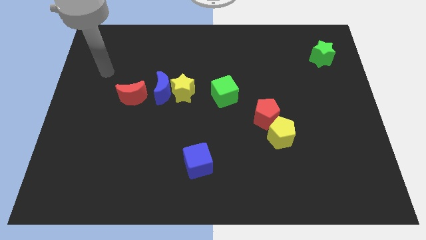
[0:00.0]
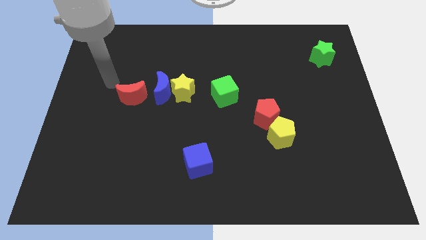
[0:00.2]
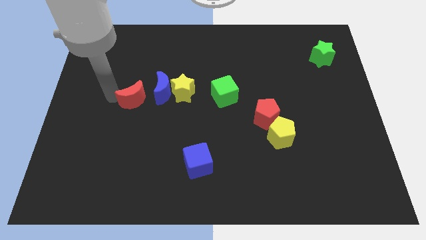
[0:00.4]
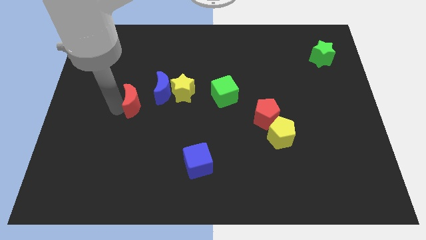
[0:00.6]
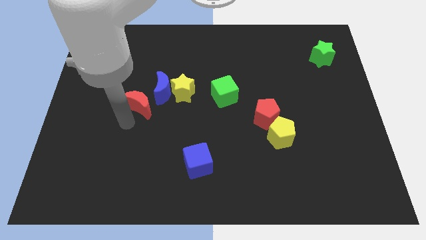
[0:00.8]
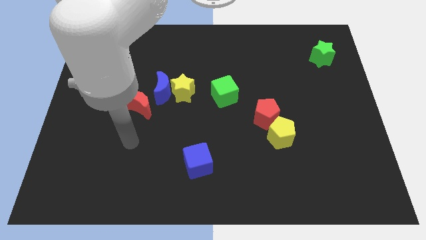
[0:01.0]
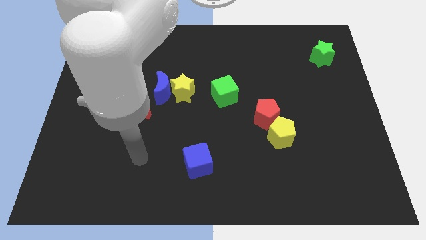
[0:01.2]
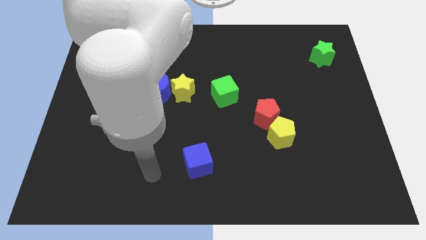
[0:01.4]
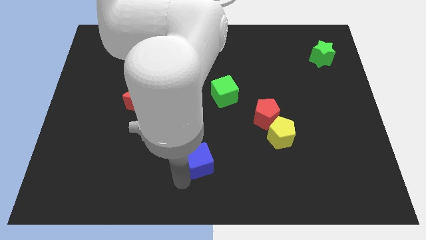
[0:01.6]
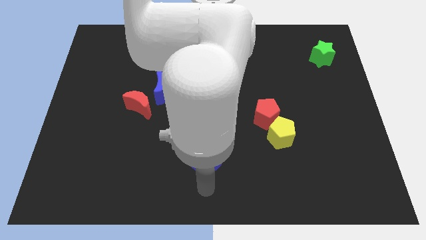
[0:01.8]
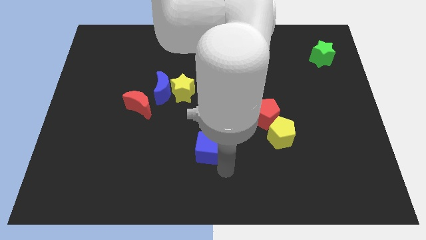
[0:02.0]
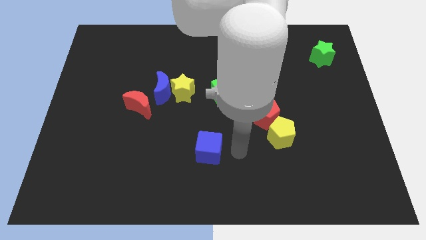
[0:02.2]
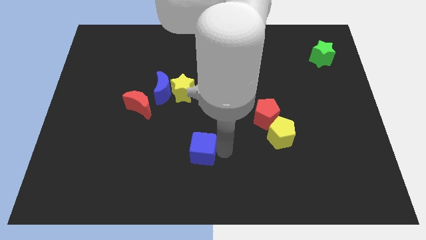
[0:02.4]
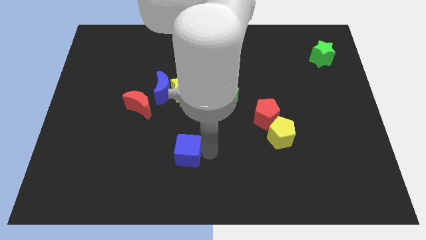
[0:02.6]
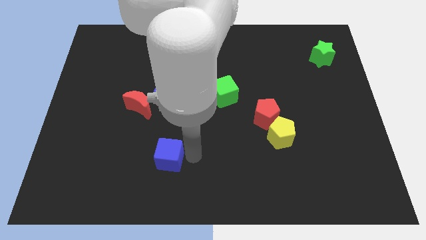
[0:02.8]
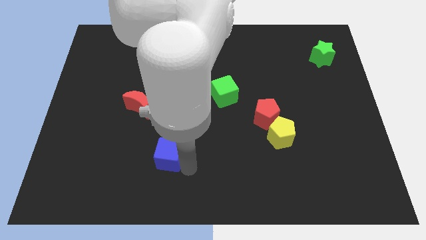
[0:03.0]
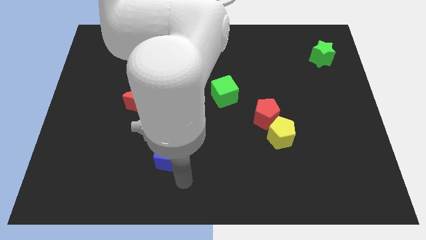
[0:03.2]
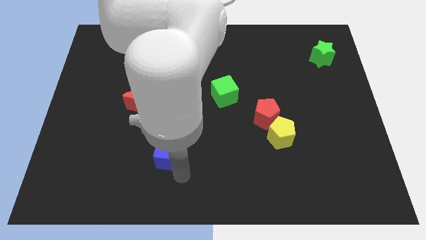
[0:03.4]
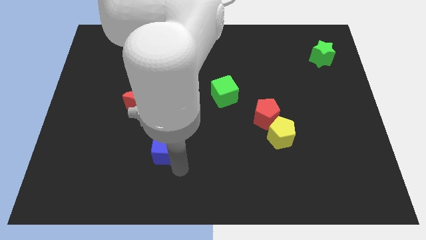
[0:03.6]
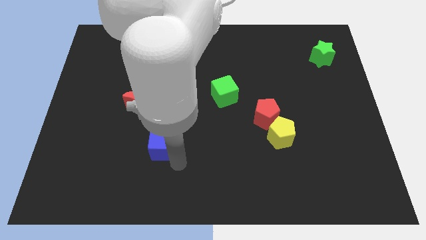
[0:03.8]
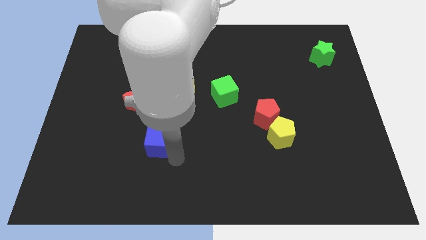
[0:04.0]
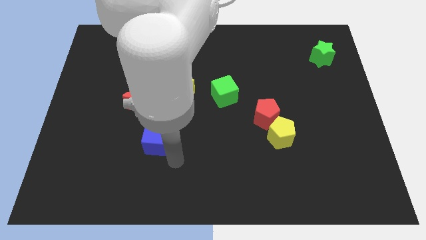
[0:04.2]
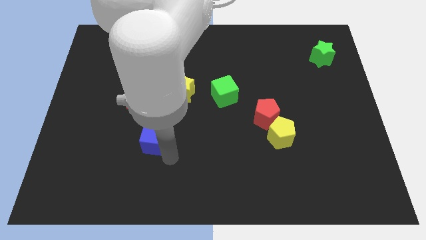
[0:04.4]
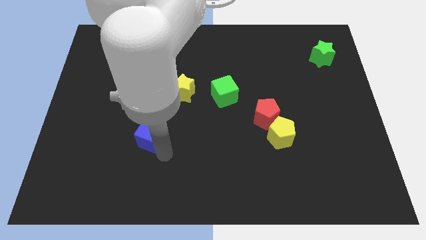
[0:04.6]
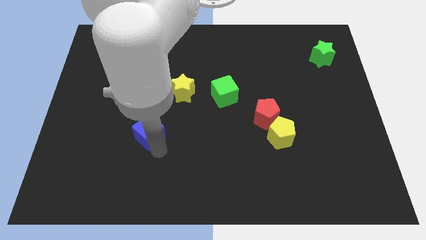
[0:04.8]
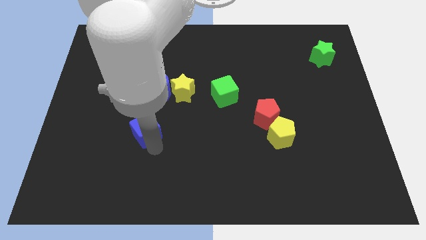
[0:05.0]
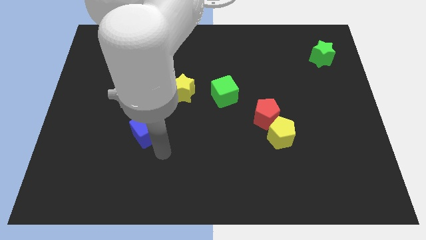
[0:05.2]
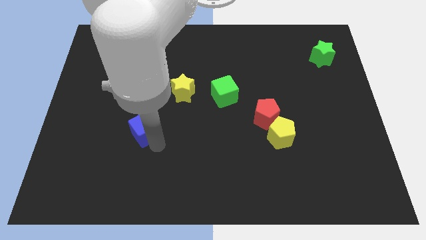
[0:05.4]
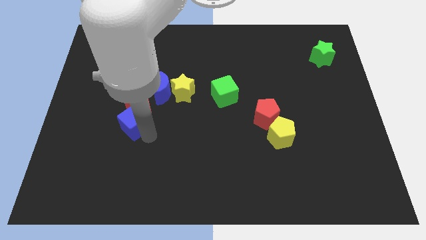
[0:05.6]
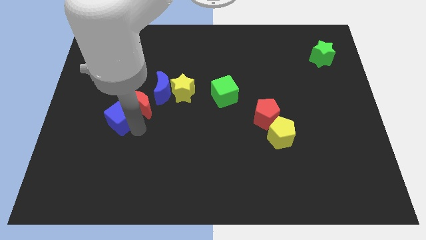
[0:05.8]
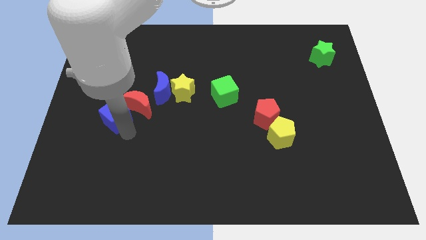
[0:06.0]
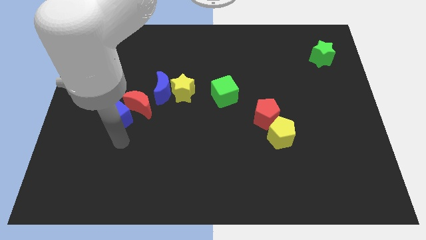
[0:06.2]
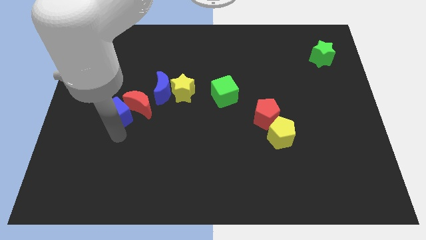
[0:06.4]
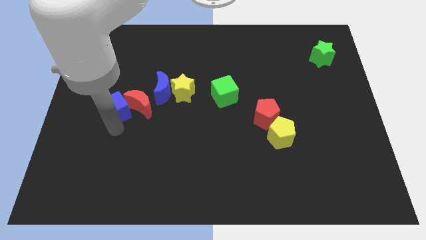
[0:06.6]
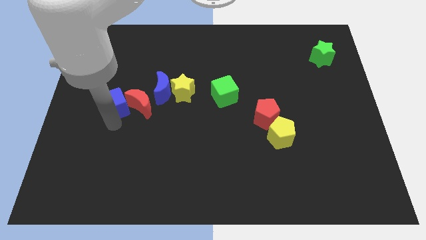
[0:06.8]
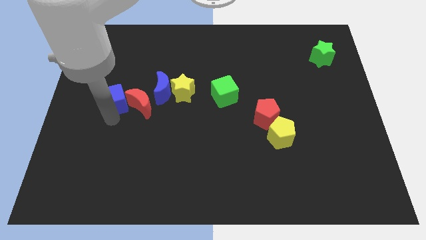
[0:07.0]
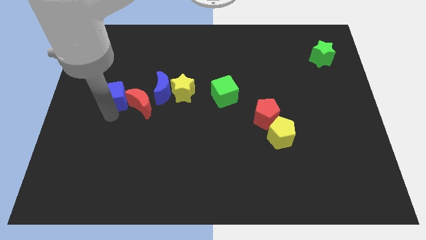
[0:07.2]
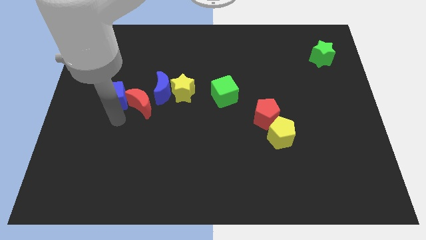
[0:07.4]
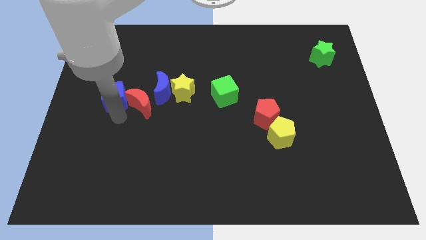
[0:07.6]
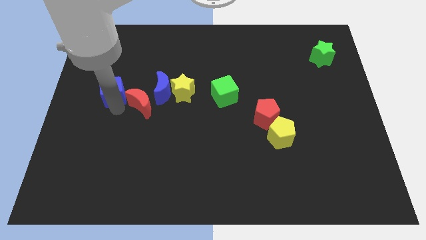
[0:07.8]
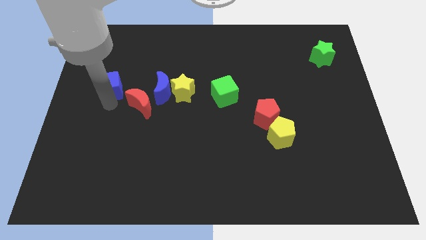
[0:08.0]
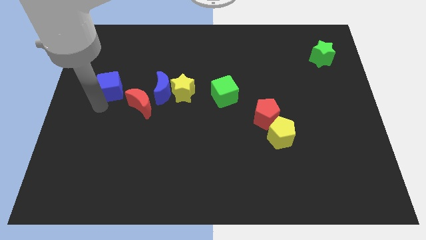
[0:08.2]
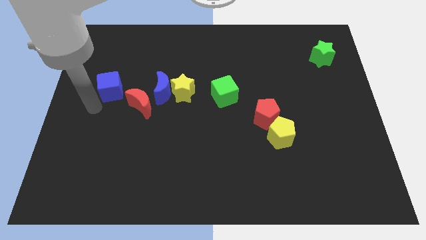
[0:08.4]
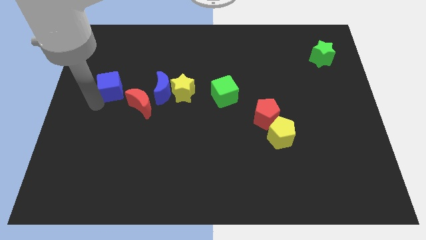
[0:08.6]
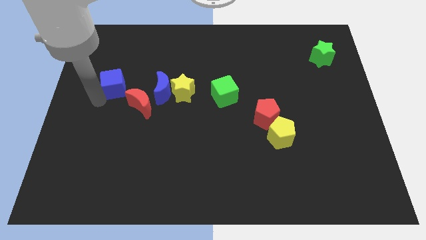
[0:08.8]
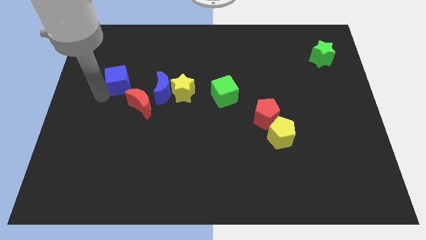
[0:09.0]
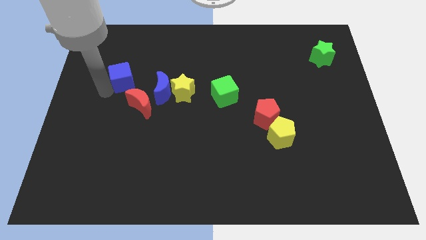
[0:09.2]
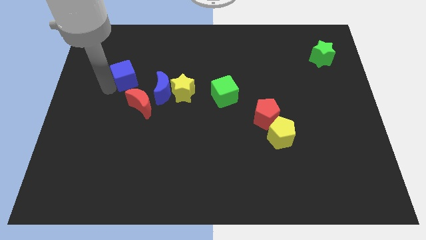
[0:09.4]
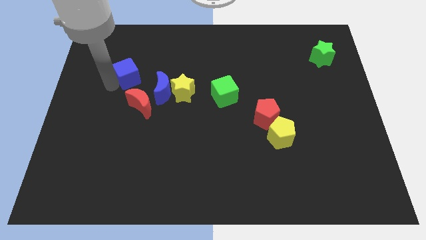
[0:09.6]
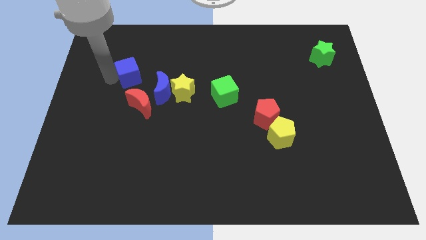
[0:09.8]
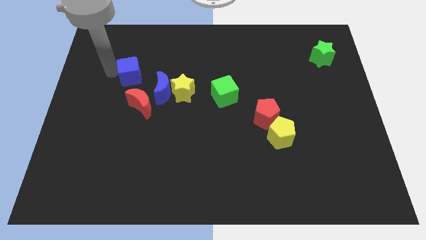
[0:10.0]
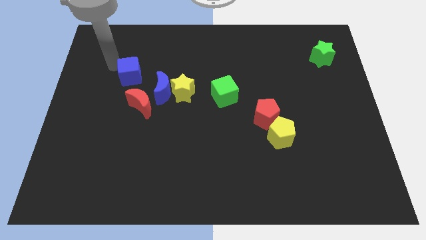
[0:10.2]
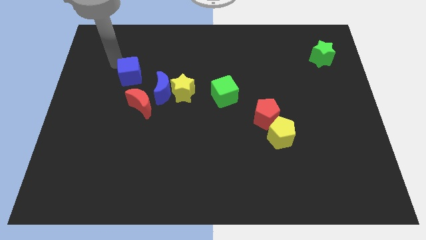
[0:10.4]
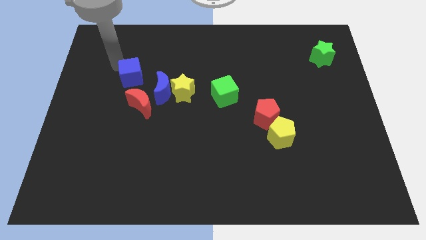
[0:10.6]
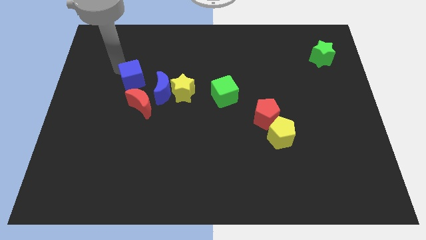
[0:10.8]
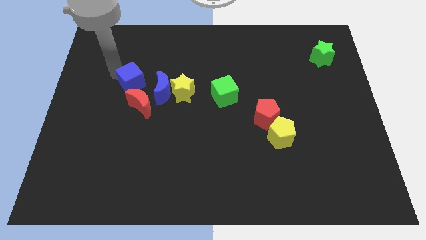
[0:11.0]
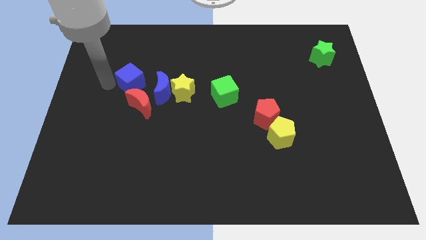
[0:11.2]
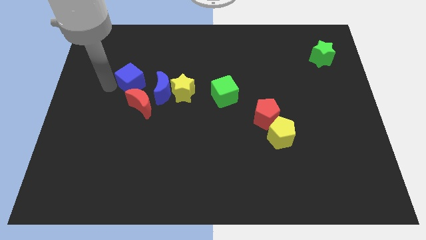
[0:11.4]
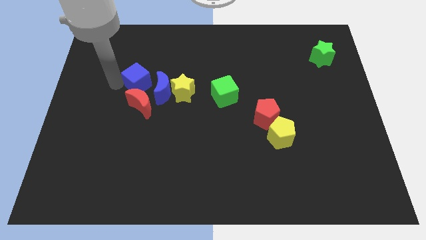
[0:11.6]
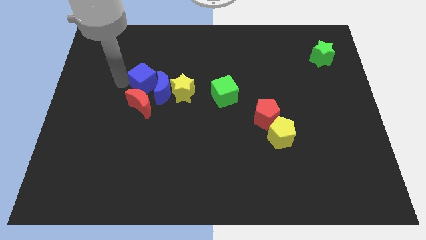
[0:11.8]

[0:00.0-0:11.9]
push the blue cube to the top left side of the yellow star
